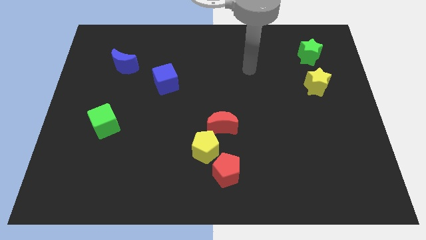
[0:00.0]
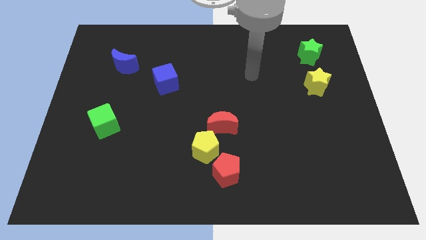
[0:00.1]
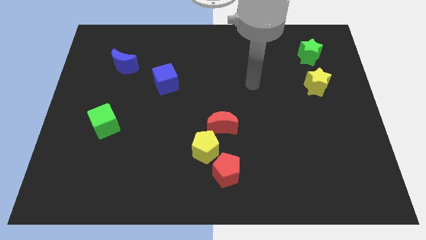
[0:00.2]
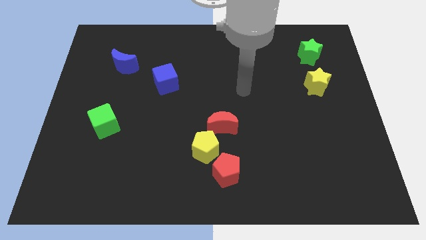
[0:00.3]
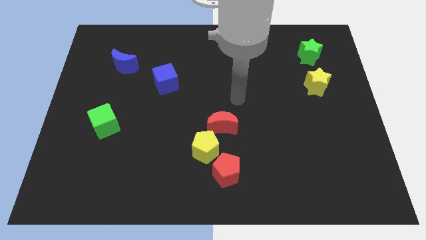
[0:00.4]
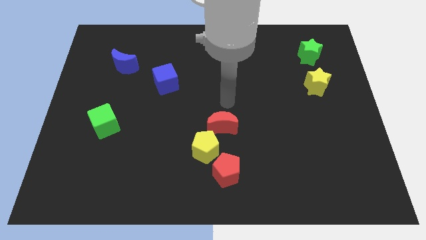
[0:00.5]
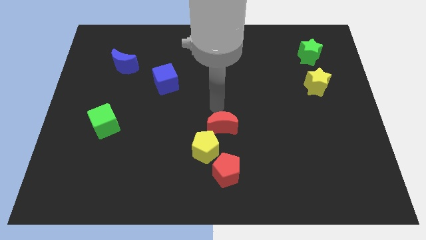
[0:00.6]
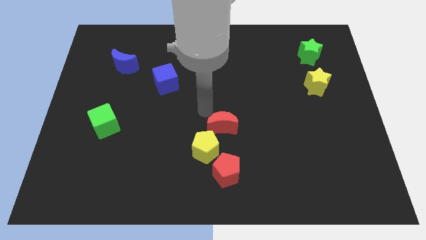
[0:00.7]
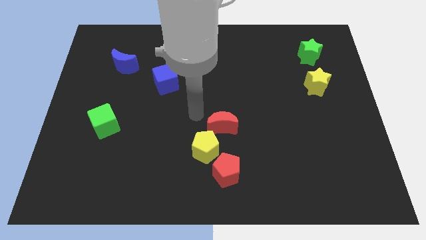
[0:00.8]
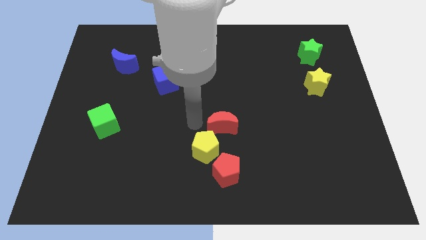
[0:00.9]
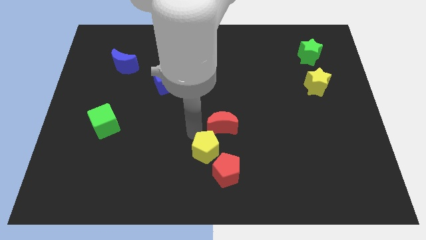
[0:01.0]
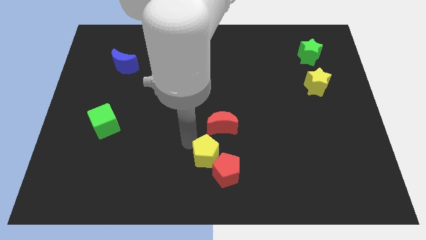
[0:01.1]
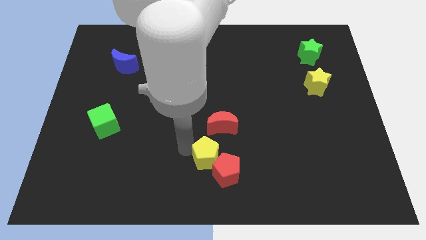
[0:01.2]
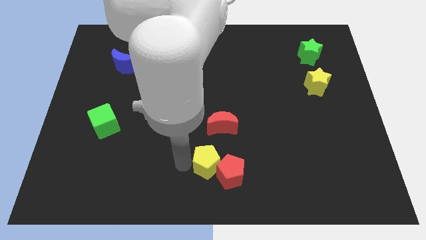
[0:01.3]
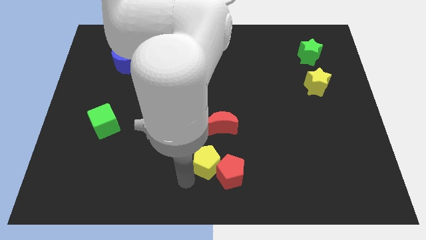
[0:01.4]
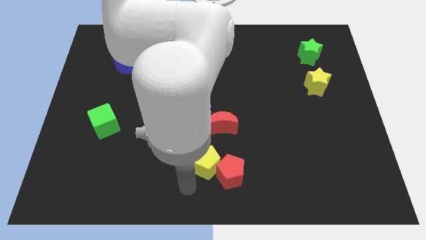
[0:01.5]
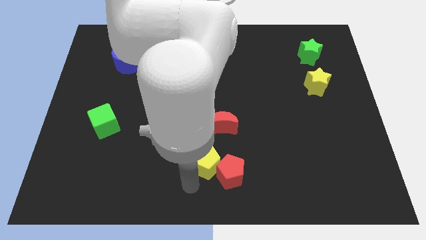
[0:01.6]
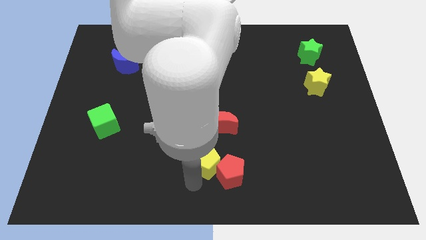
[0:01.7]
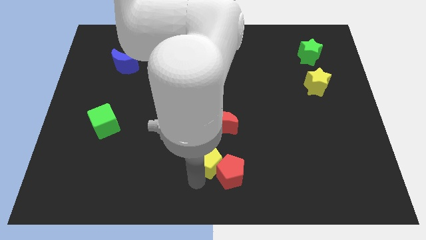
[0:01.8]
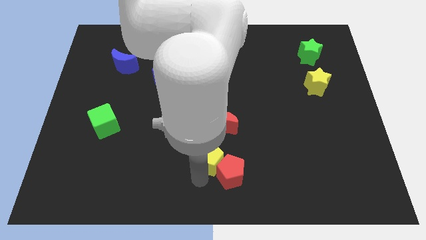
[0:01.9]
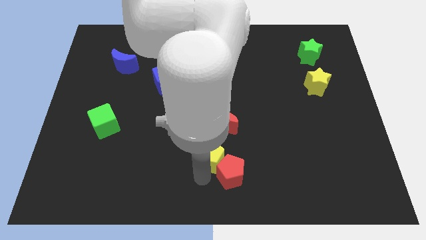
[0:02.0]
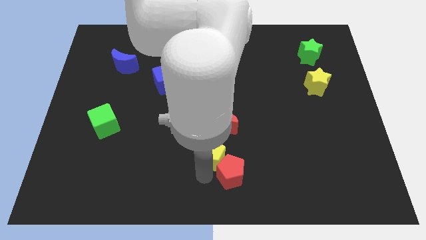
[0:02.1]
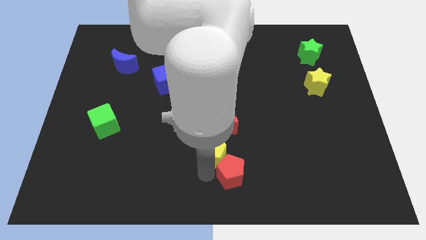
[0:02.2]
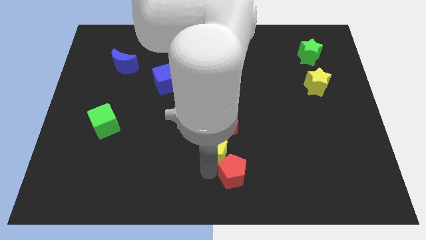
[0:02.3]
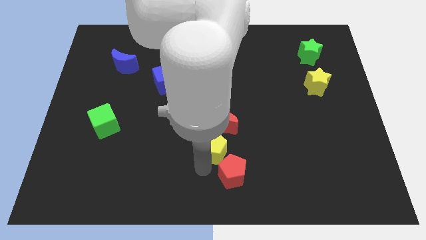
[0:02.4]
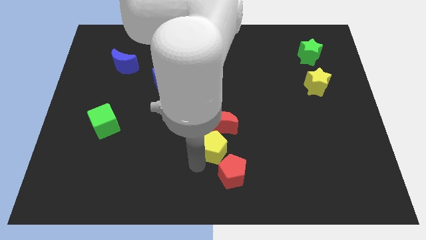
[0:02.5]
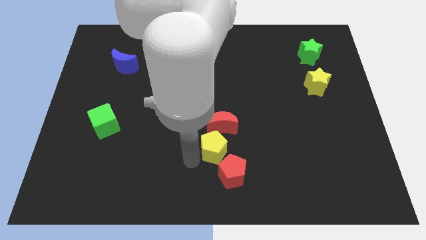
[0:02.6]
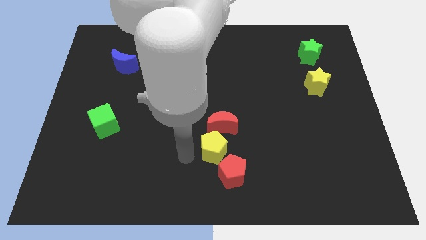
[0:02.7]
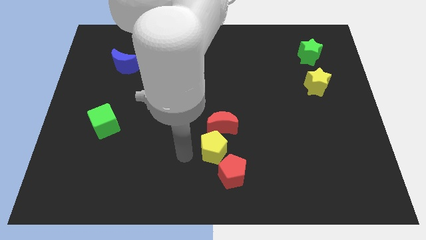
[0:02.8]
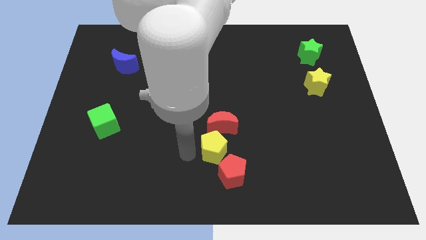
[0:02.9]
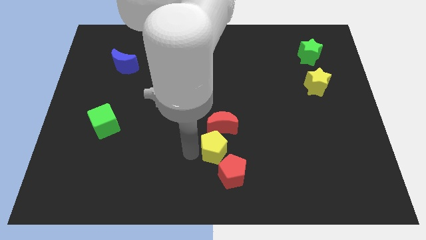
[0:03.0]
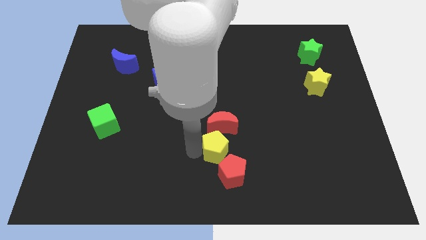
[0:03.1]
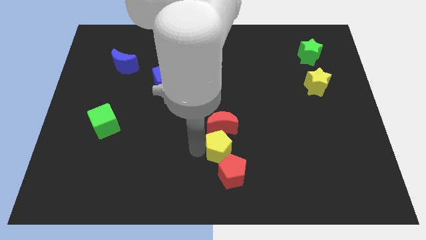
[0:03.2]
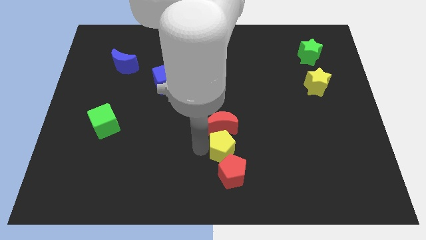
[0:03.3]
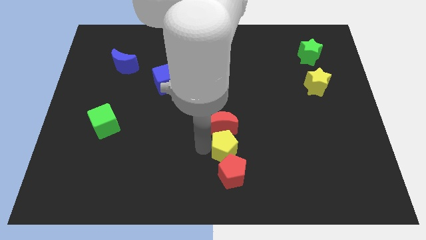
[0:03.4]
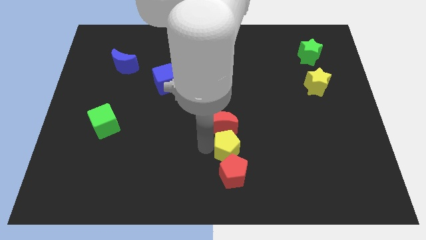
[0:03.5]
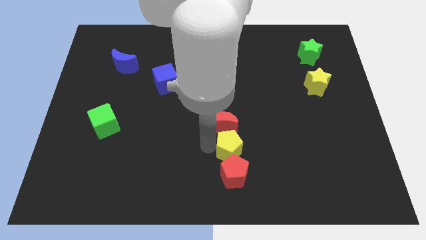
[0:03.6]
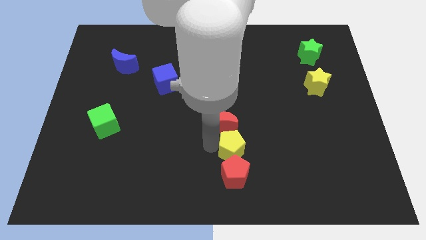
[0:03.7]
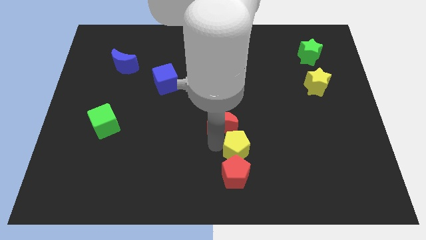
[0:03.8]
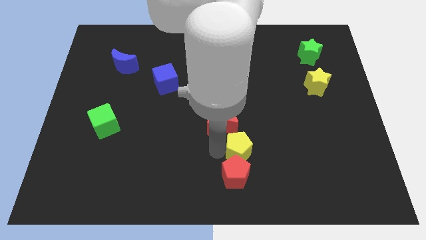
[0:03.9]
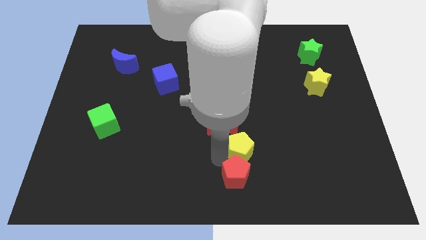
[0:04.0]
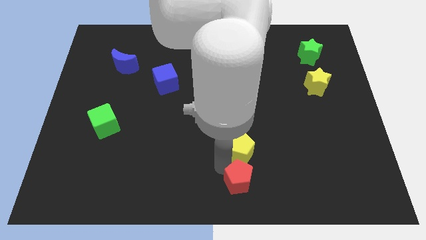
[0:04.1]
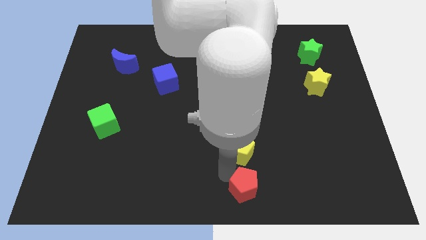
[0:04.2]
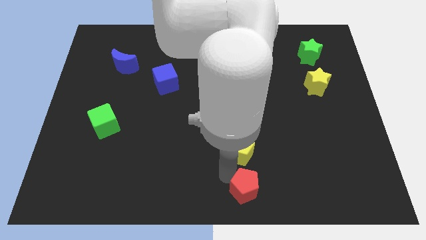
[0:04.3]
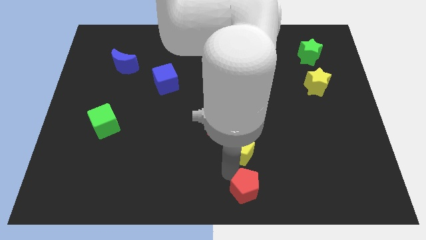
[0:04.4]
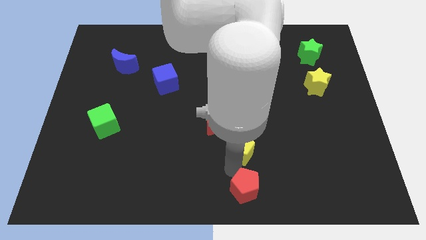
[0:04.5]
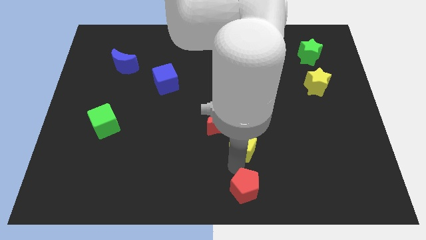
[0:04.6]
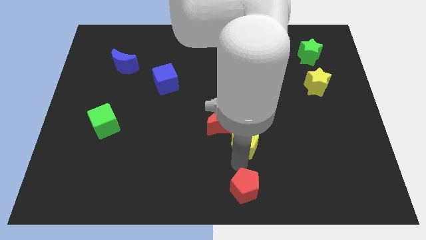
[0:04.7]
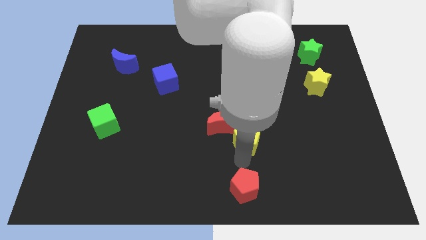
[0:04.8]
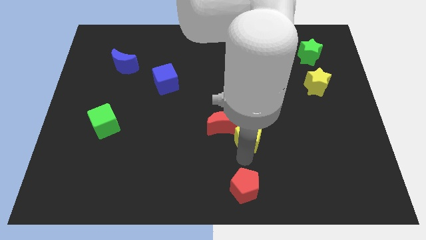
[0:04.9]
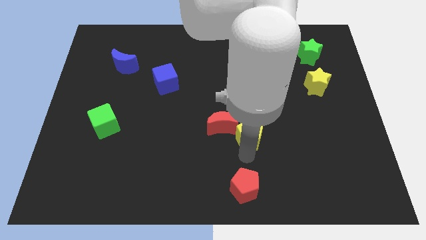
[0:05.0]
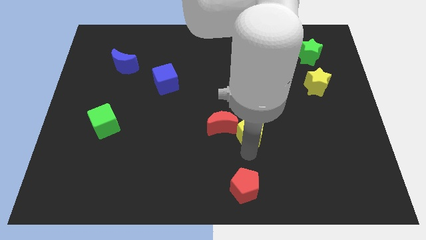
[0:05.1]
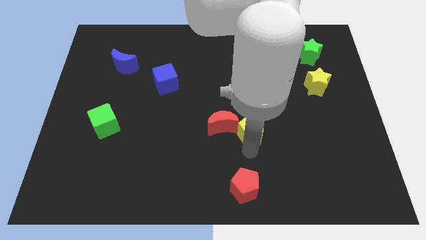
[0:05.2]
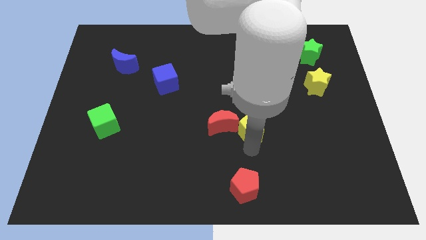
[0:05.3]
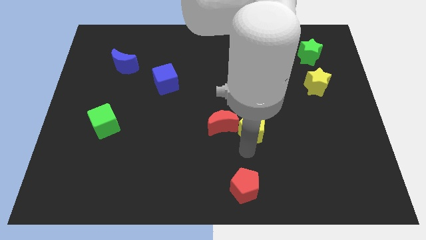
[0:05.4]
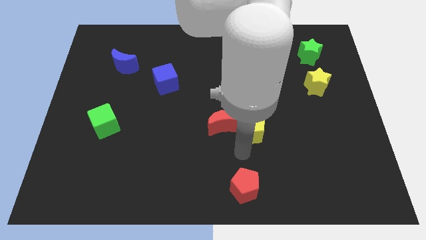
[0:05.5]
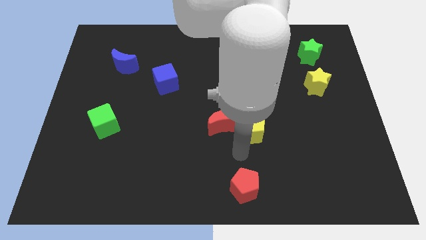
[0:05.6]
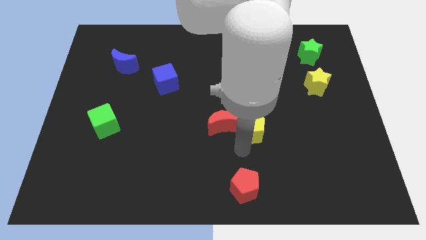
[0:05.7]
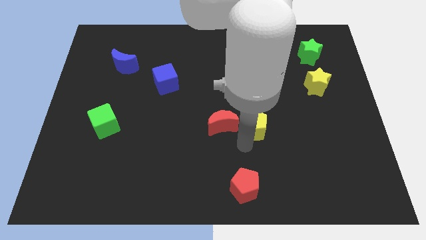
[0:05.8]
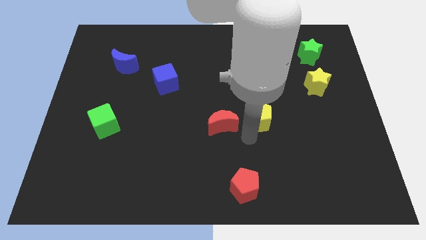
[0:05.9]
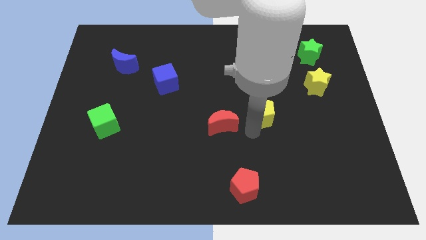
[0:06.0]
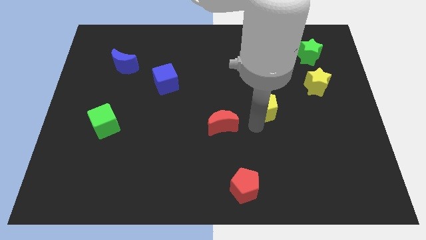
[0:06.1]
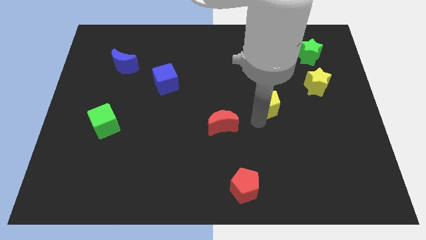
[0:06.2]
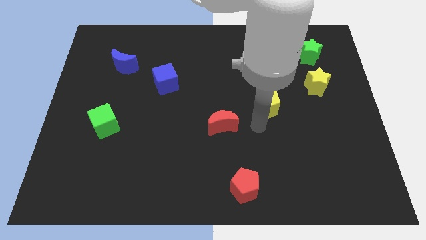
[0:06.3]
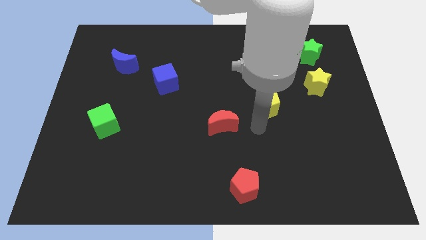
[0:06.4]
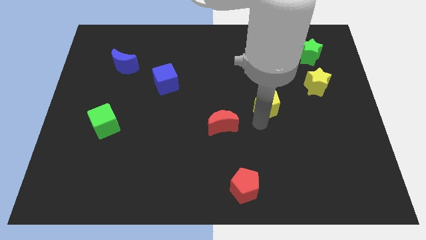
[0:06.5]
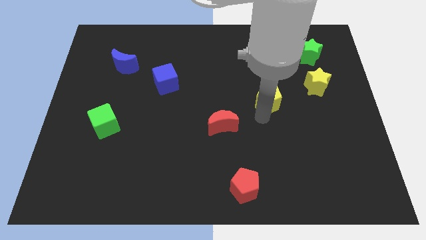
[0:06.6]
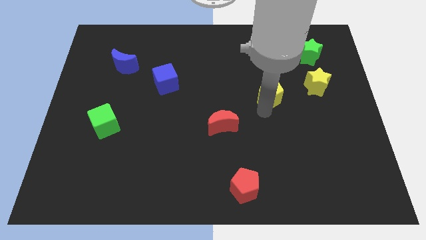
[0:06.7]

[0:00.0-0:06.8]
push the yellow pentagon to the left side of the yellow star

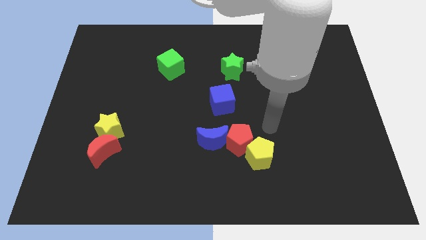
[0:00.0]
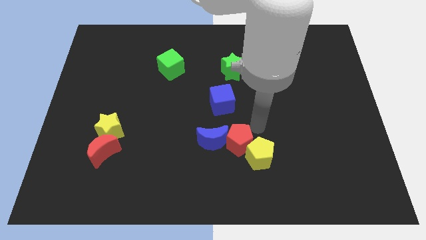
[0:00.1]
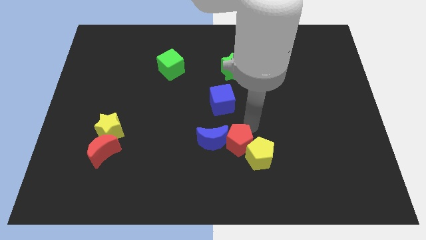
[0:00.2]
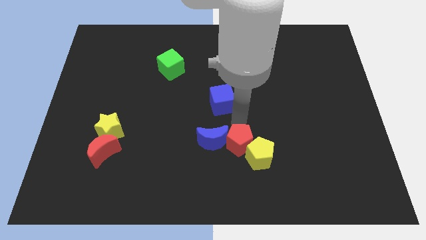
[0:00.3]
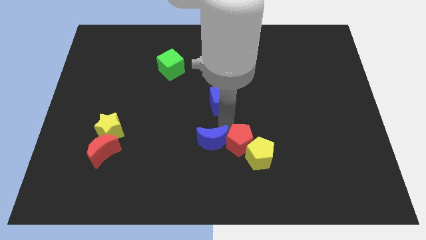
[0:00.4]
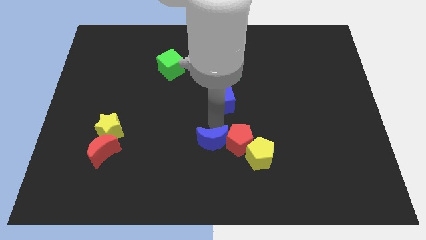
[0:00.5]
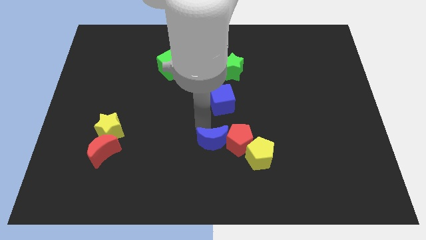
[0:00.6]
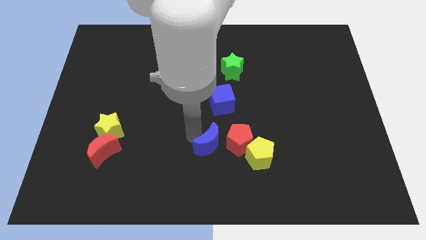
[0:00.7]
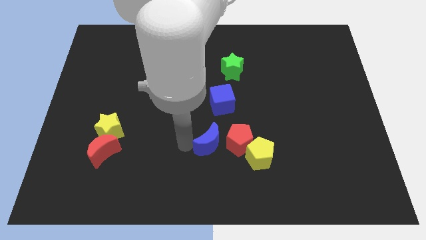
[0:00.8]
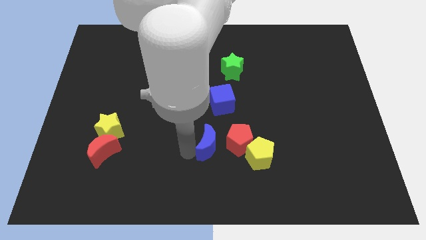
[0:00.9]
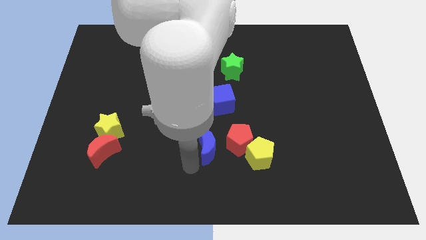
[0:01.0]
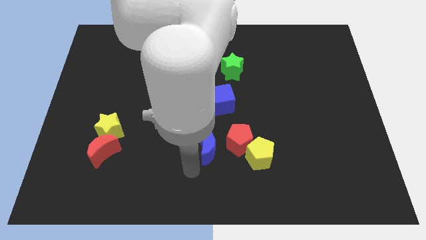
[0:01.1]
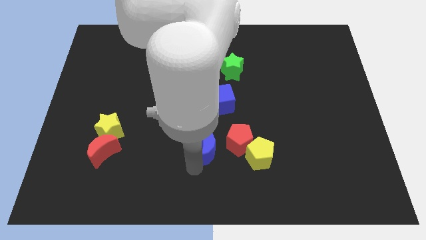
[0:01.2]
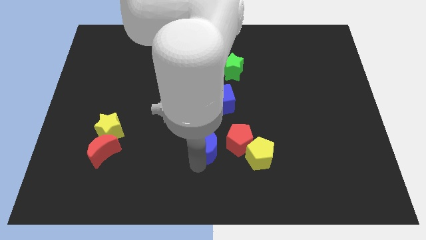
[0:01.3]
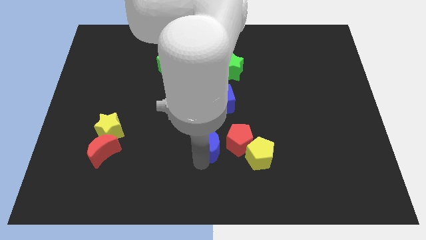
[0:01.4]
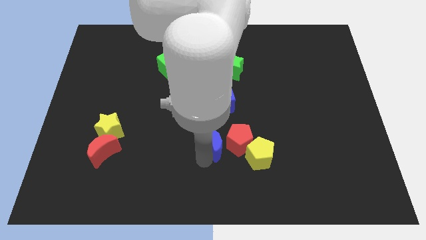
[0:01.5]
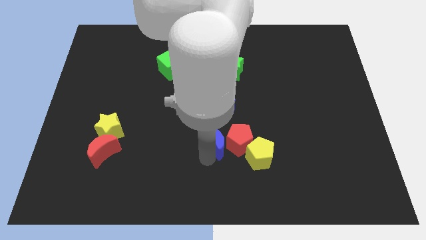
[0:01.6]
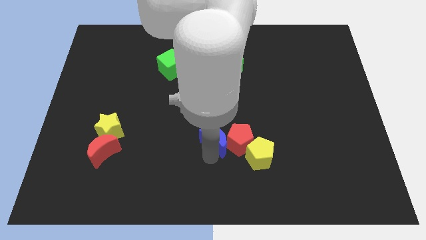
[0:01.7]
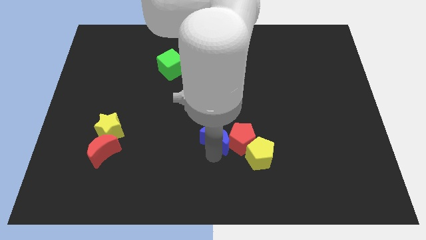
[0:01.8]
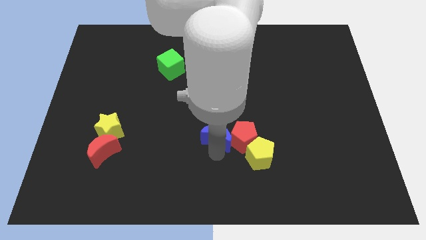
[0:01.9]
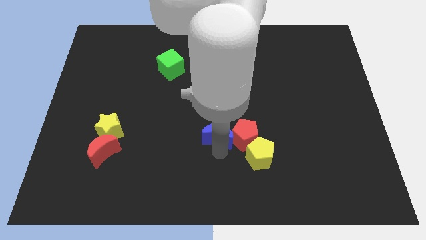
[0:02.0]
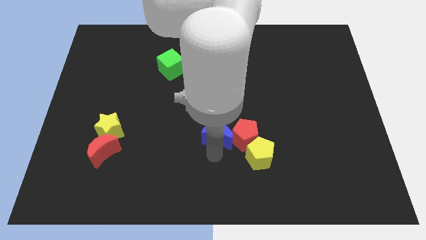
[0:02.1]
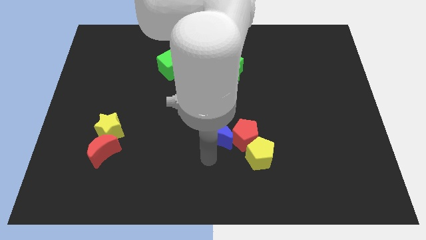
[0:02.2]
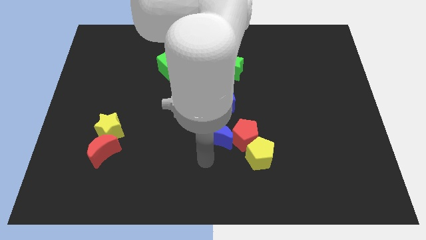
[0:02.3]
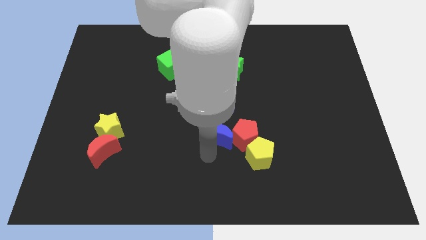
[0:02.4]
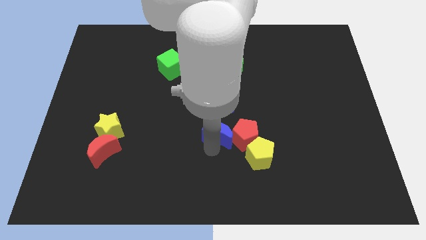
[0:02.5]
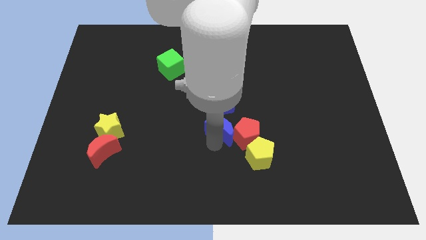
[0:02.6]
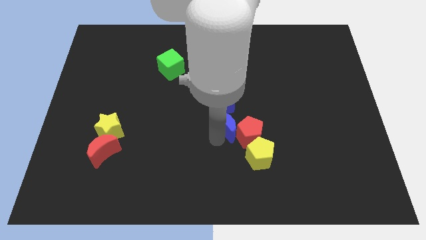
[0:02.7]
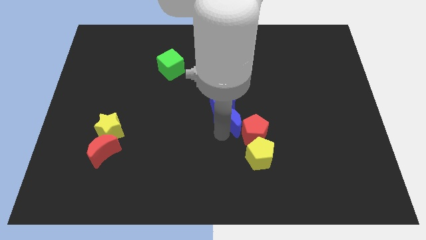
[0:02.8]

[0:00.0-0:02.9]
move the blue moon to the bottom of the green star
